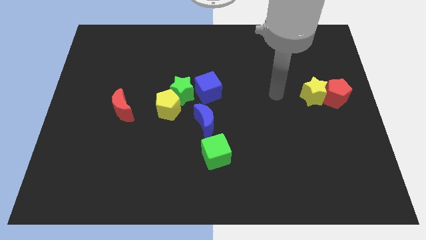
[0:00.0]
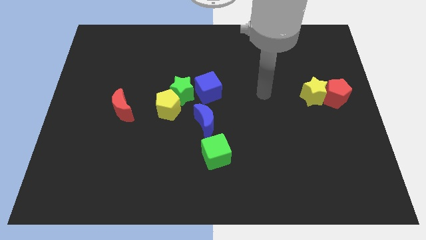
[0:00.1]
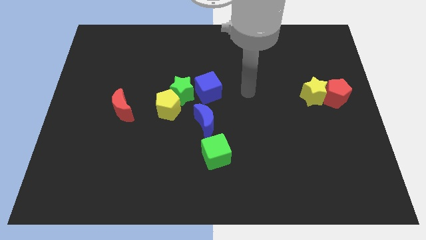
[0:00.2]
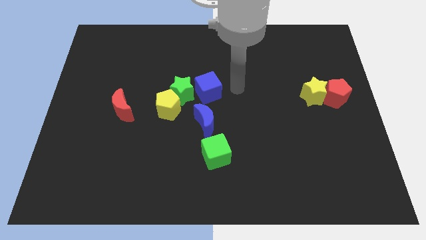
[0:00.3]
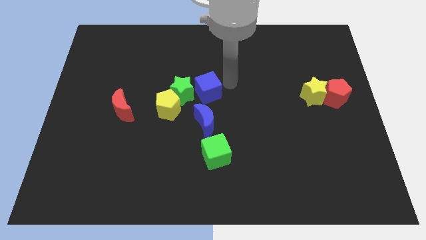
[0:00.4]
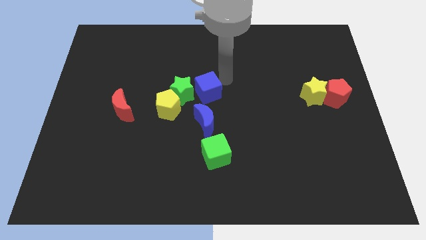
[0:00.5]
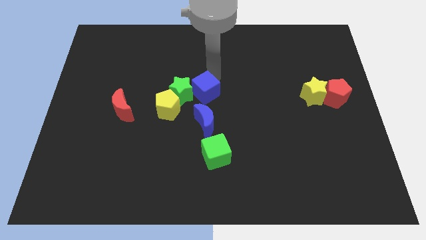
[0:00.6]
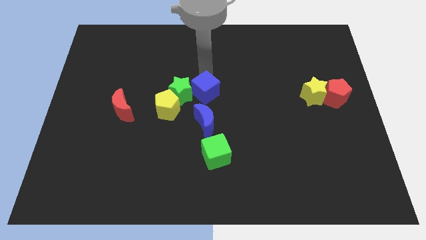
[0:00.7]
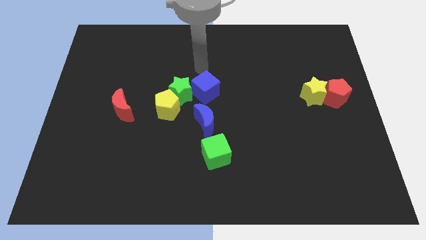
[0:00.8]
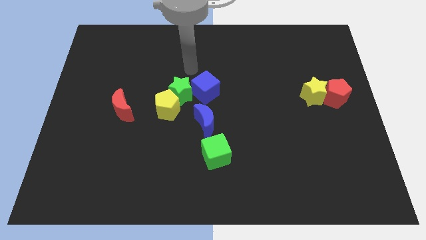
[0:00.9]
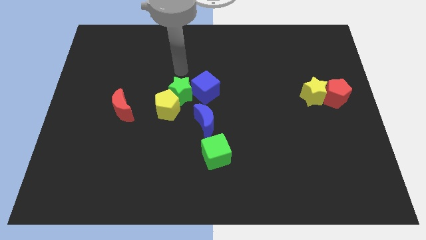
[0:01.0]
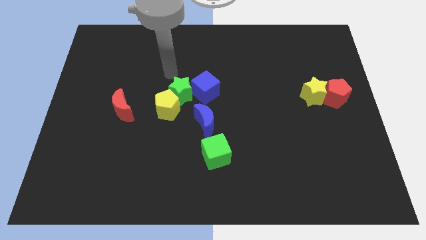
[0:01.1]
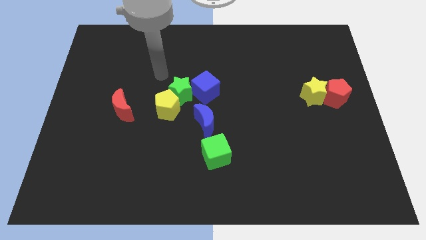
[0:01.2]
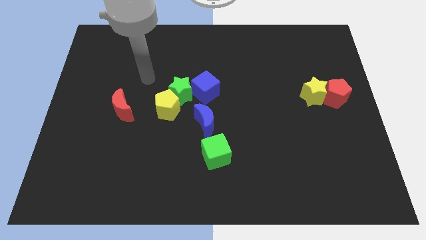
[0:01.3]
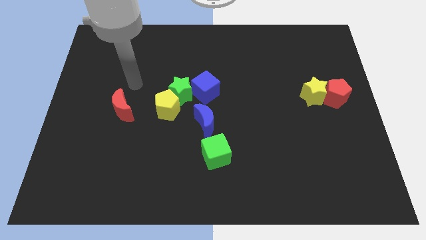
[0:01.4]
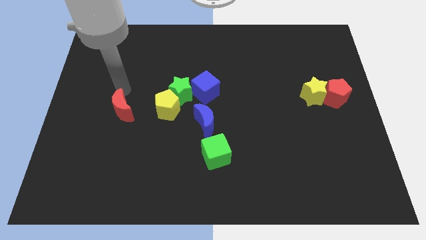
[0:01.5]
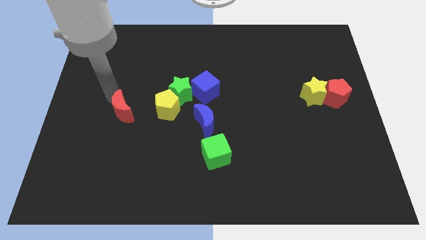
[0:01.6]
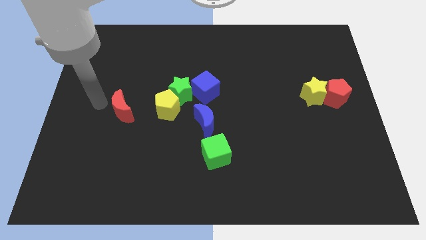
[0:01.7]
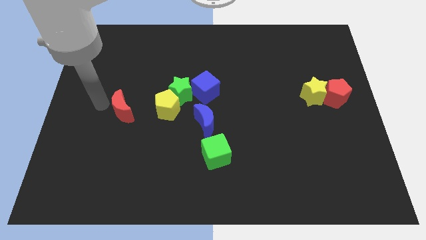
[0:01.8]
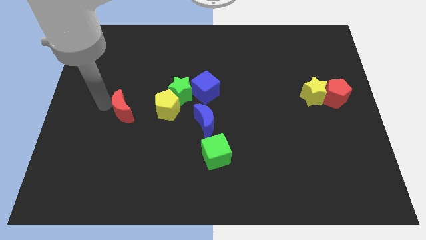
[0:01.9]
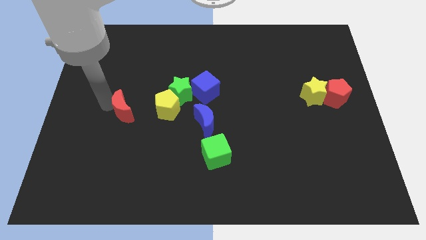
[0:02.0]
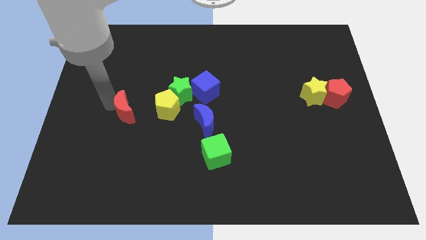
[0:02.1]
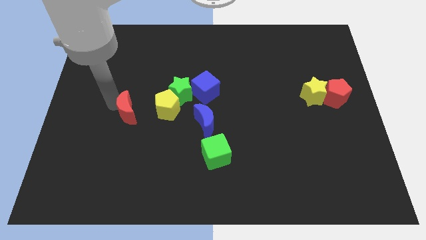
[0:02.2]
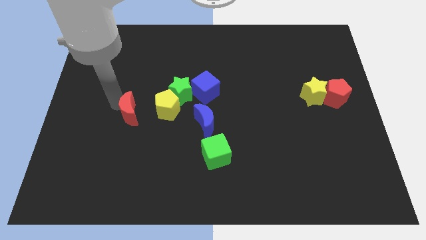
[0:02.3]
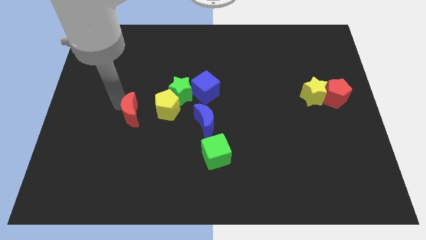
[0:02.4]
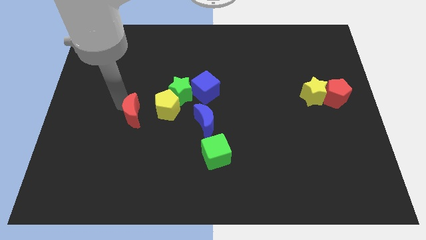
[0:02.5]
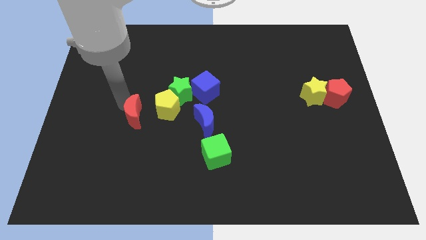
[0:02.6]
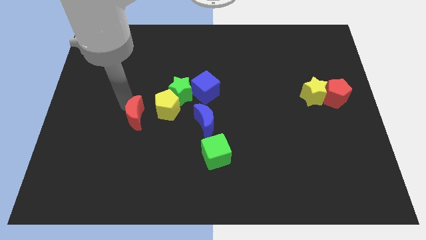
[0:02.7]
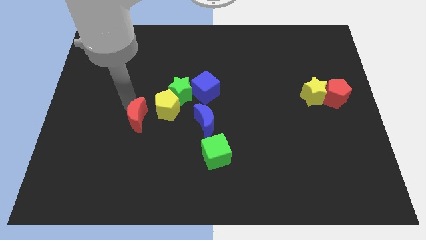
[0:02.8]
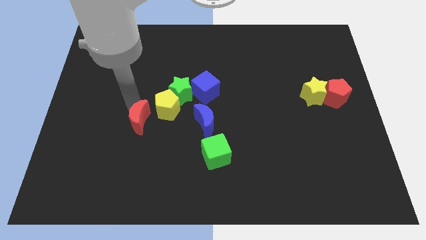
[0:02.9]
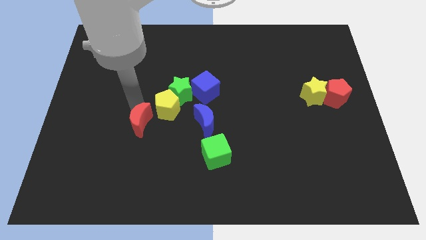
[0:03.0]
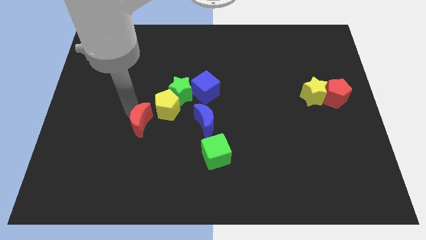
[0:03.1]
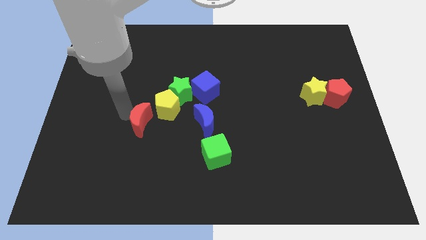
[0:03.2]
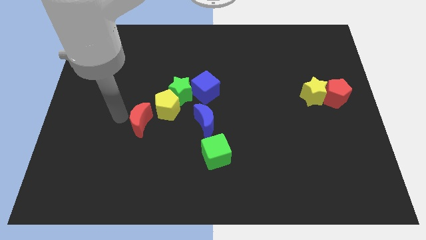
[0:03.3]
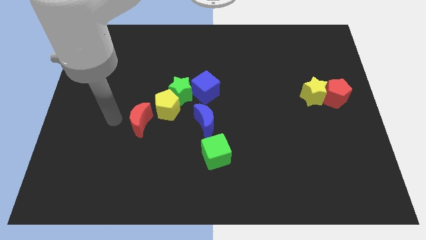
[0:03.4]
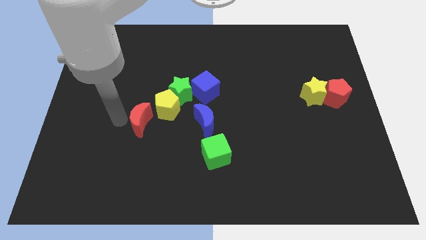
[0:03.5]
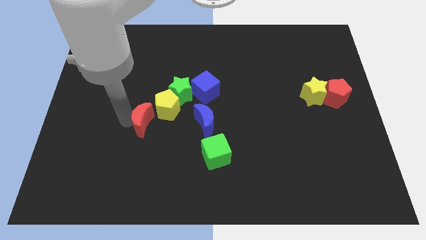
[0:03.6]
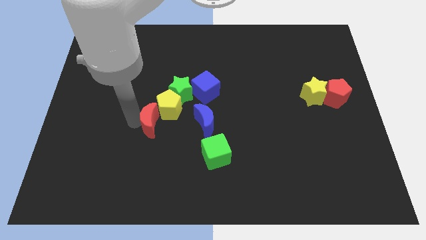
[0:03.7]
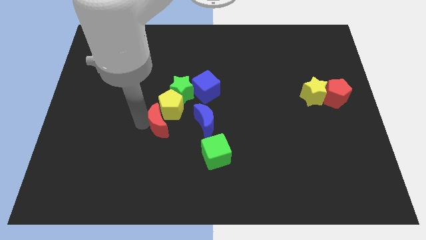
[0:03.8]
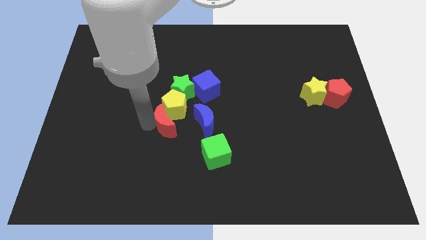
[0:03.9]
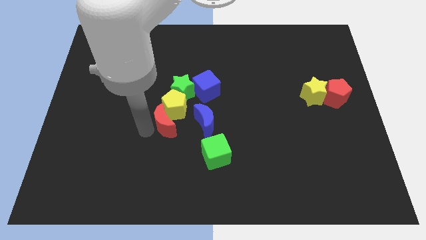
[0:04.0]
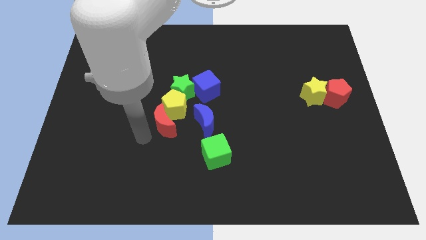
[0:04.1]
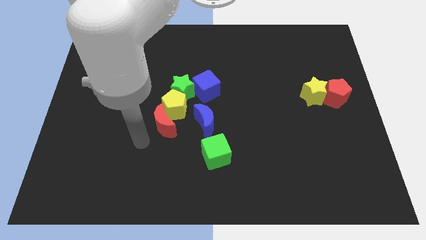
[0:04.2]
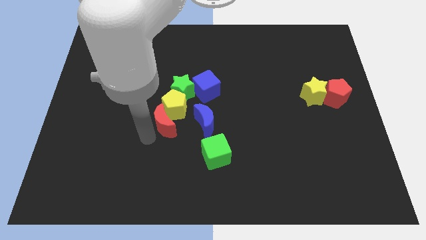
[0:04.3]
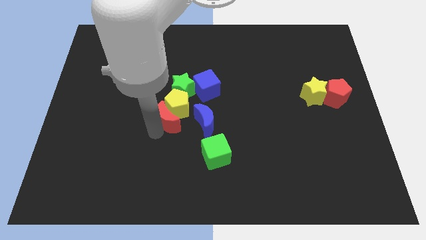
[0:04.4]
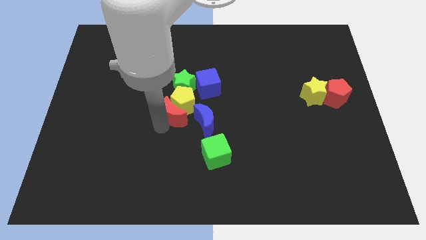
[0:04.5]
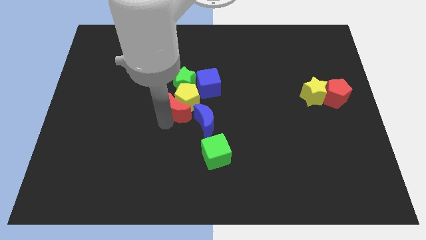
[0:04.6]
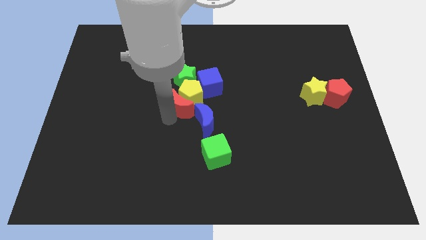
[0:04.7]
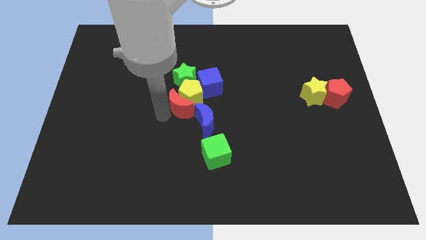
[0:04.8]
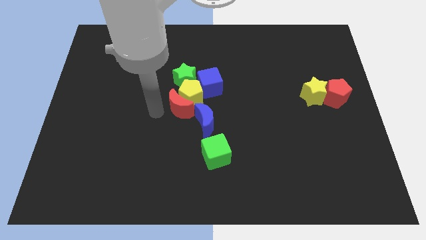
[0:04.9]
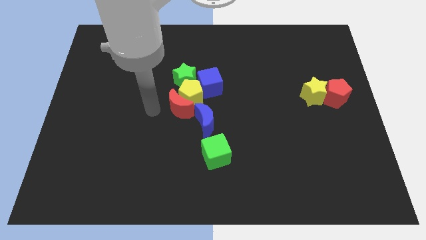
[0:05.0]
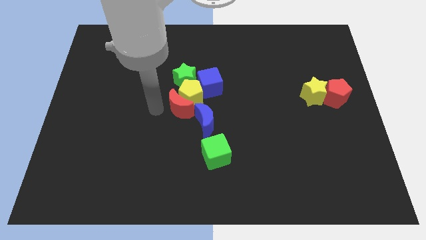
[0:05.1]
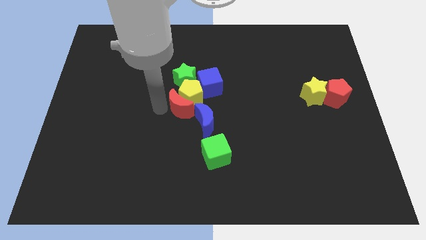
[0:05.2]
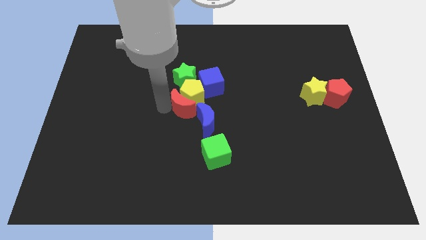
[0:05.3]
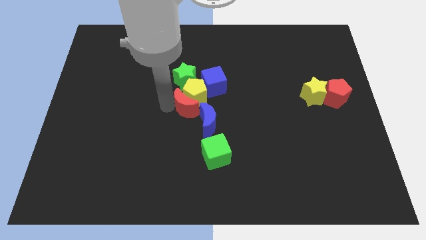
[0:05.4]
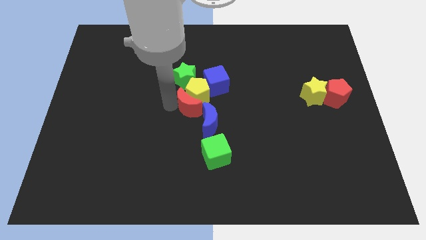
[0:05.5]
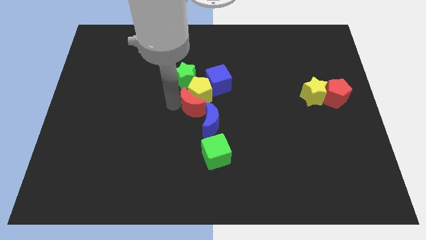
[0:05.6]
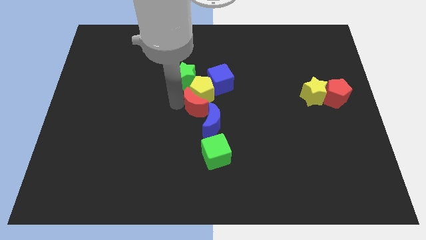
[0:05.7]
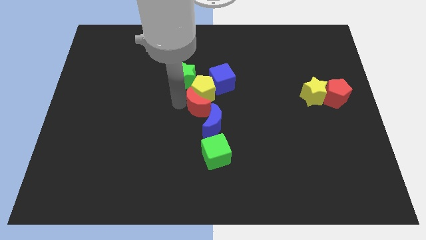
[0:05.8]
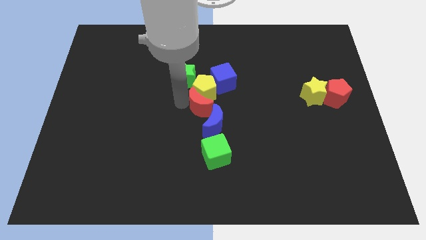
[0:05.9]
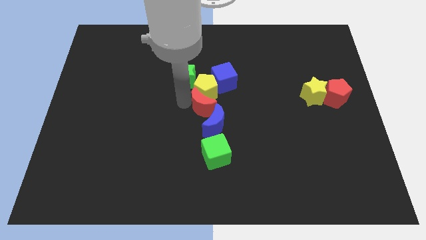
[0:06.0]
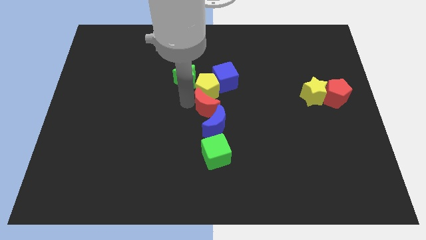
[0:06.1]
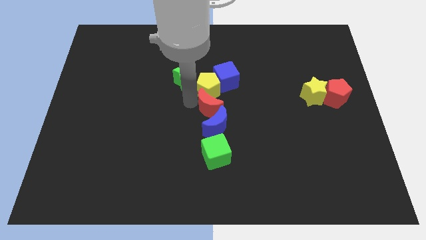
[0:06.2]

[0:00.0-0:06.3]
slide the red moon right

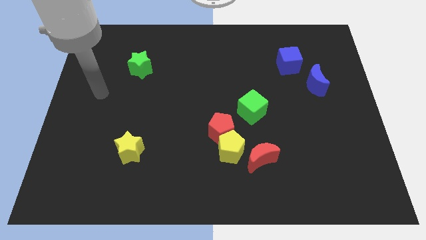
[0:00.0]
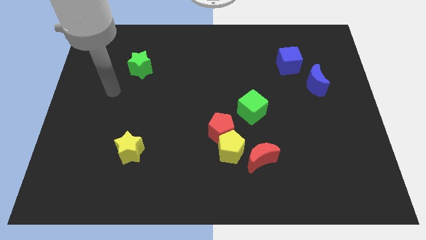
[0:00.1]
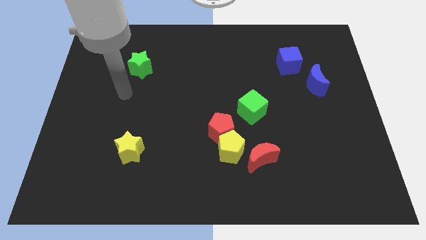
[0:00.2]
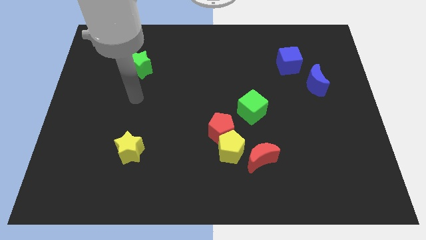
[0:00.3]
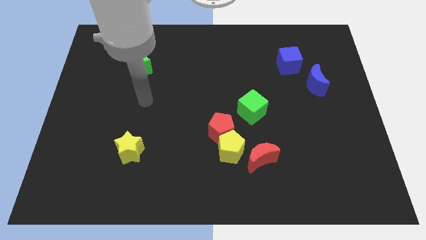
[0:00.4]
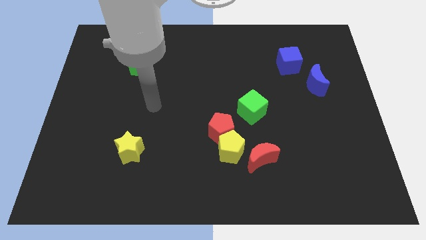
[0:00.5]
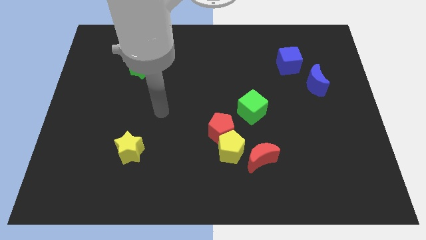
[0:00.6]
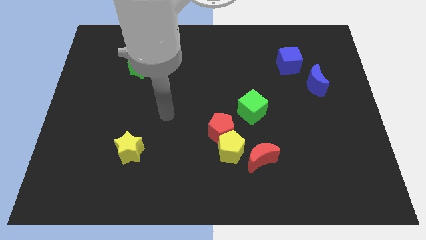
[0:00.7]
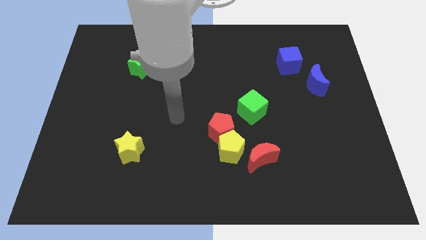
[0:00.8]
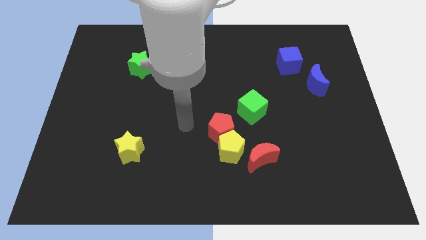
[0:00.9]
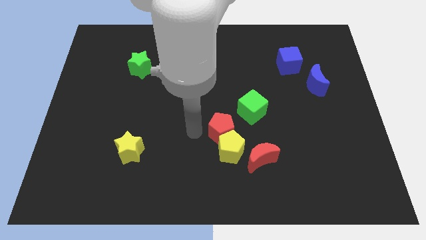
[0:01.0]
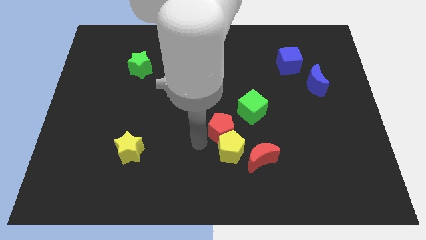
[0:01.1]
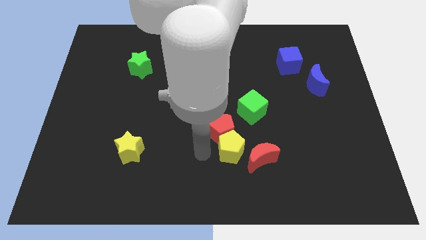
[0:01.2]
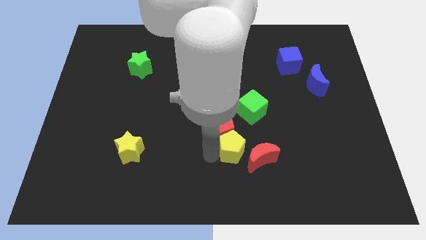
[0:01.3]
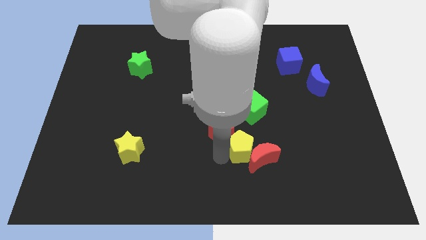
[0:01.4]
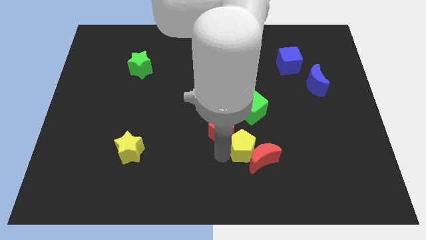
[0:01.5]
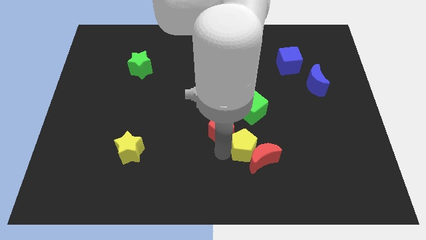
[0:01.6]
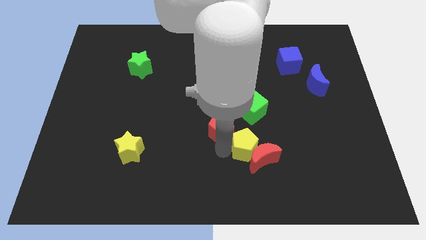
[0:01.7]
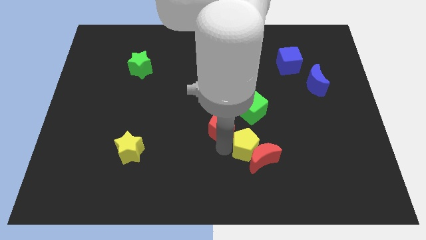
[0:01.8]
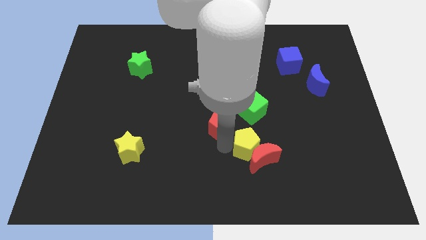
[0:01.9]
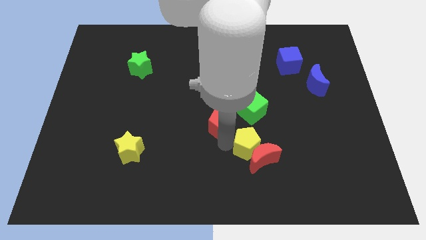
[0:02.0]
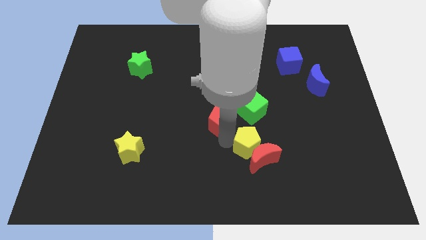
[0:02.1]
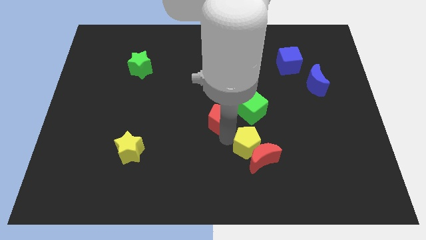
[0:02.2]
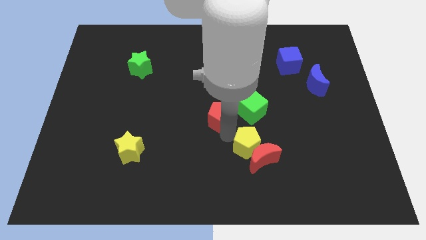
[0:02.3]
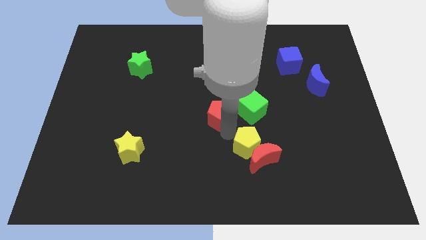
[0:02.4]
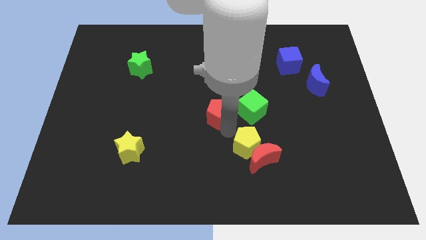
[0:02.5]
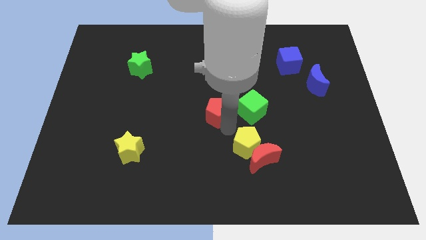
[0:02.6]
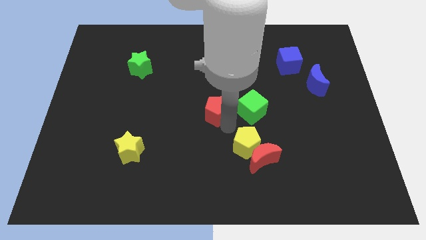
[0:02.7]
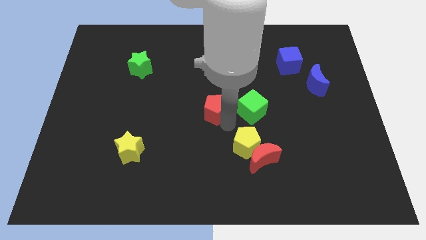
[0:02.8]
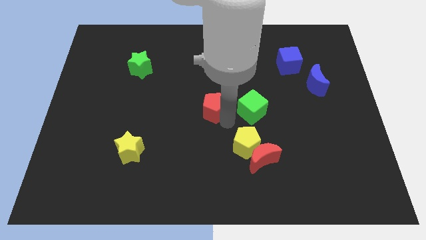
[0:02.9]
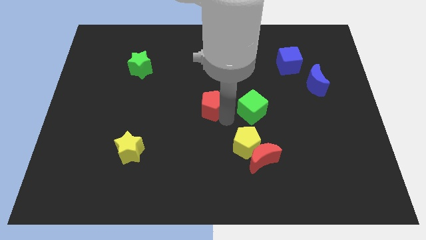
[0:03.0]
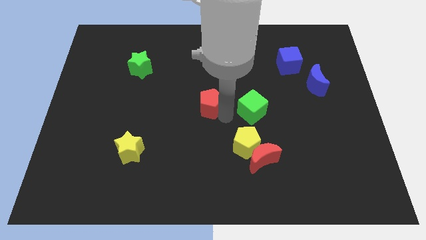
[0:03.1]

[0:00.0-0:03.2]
slightly slide the red pentagon upwards
